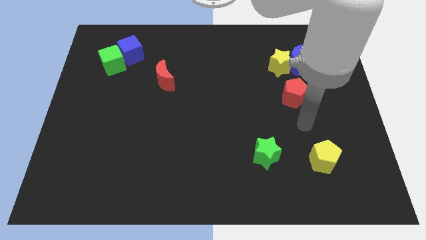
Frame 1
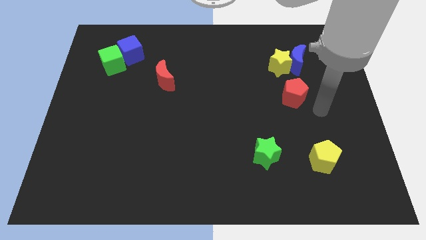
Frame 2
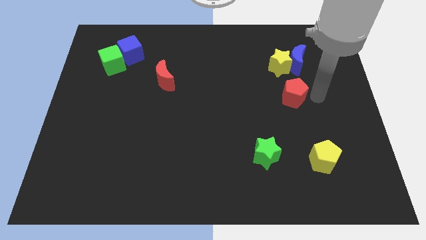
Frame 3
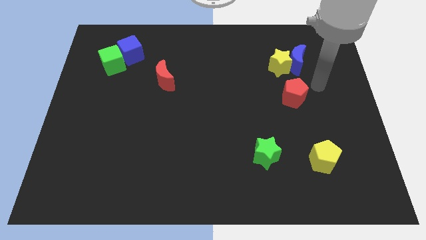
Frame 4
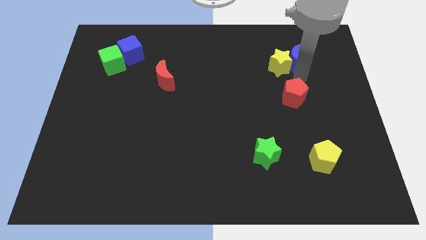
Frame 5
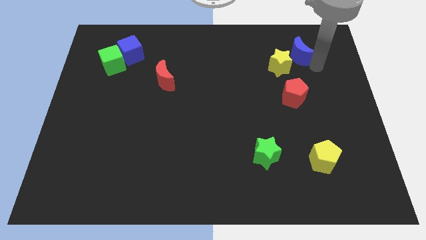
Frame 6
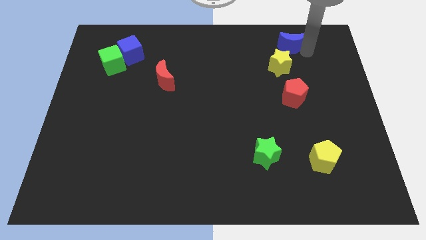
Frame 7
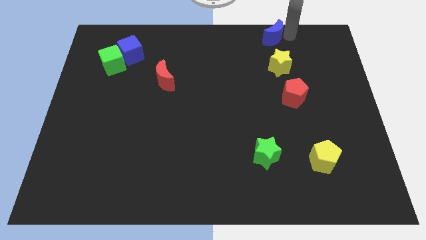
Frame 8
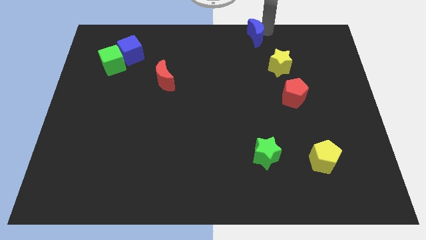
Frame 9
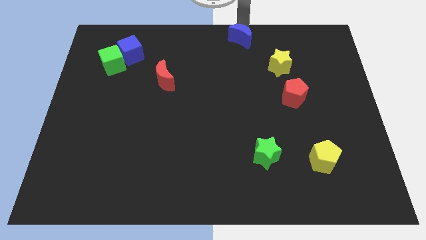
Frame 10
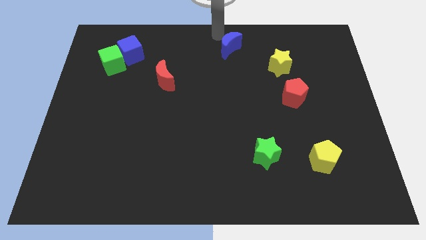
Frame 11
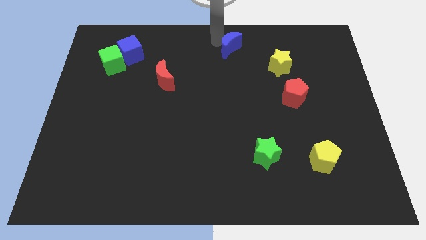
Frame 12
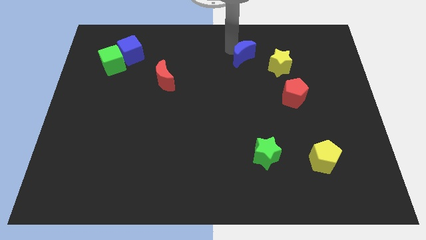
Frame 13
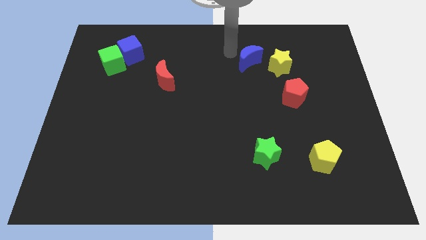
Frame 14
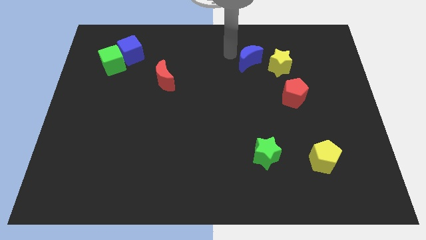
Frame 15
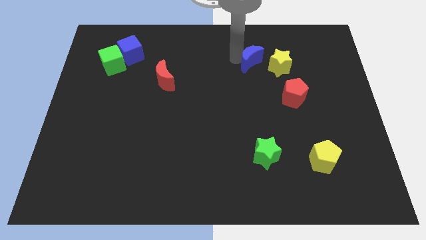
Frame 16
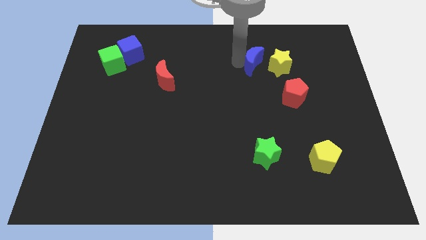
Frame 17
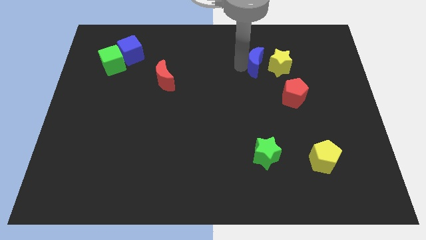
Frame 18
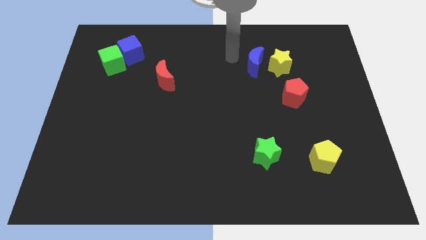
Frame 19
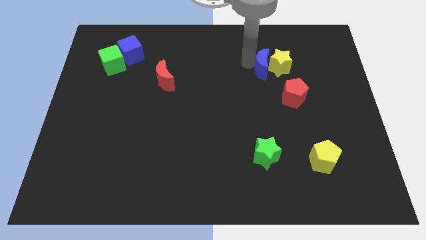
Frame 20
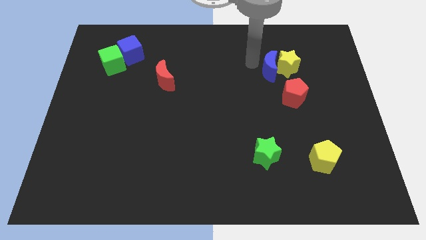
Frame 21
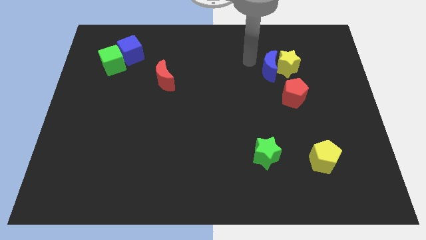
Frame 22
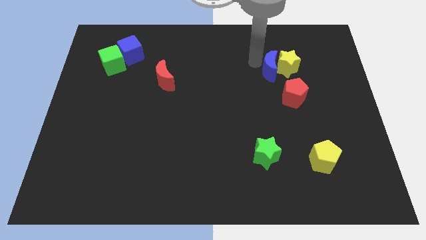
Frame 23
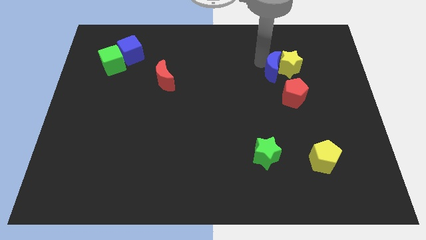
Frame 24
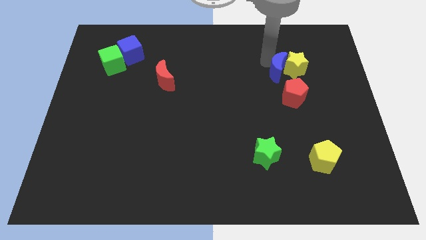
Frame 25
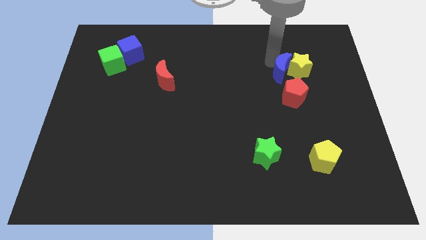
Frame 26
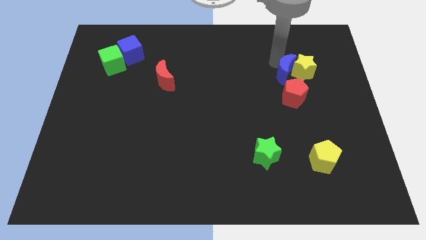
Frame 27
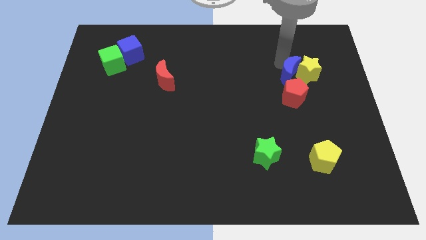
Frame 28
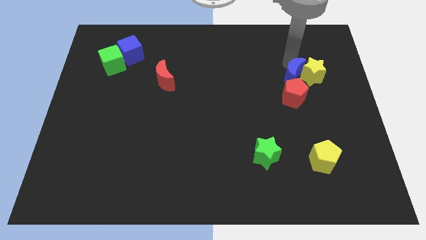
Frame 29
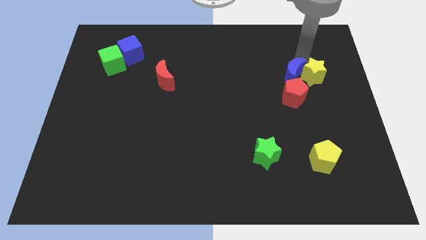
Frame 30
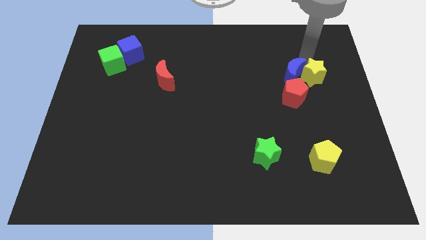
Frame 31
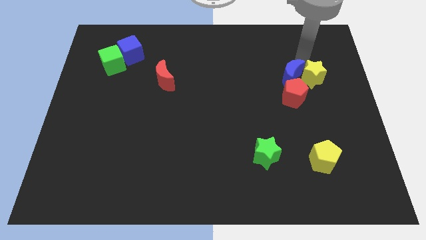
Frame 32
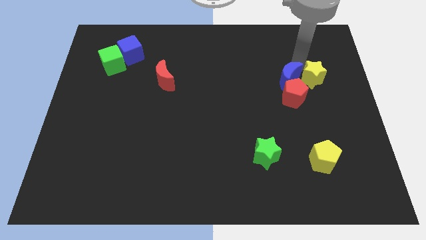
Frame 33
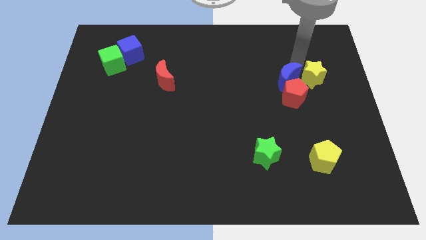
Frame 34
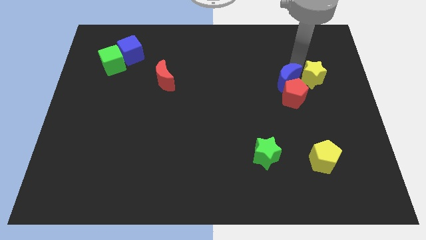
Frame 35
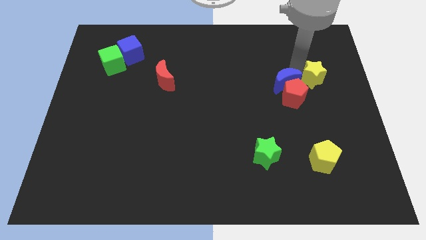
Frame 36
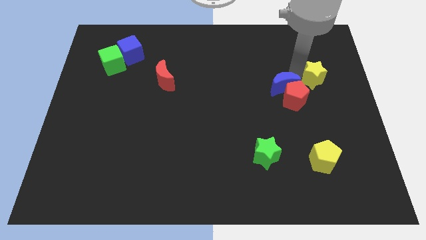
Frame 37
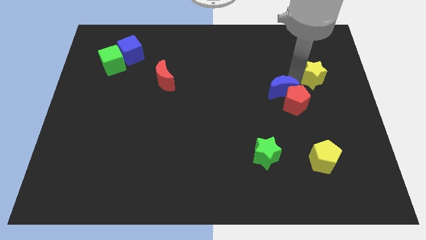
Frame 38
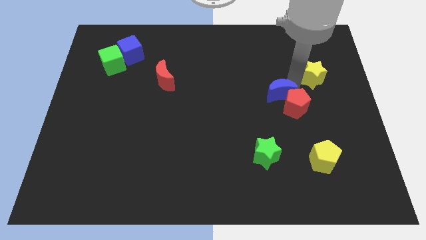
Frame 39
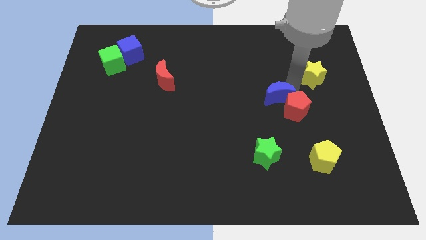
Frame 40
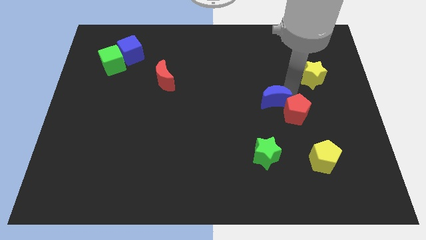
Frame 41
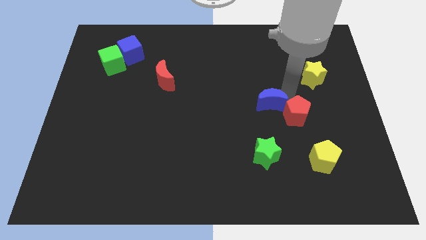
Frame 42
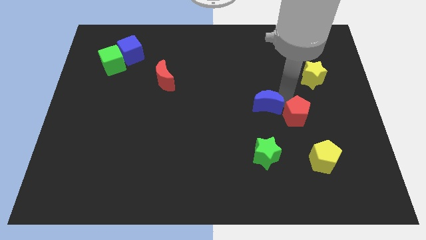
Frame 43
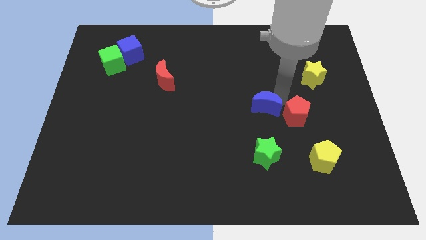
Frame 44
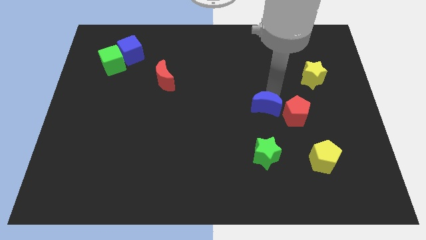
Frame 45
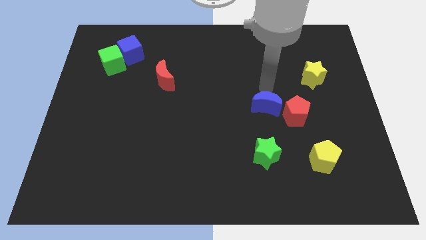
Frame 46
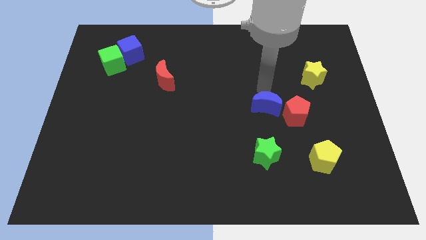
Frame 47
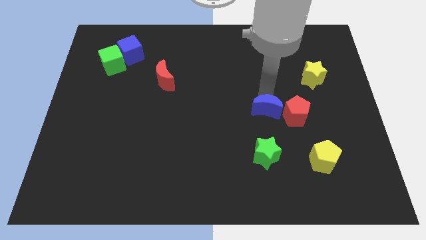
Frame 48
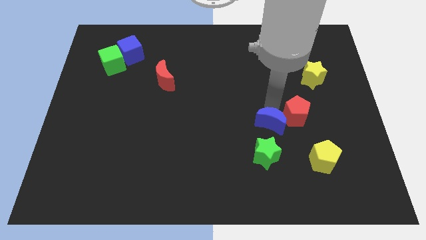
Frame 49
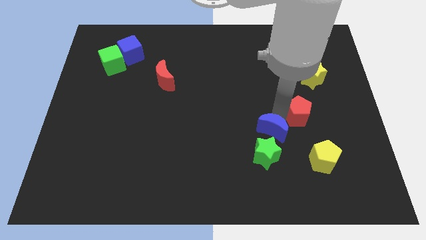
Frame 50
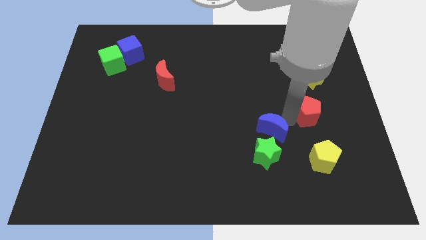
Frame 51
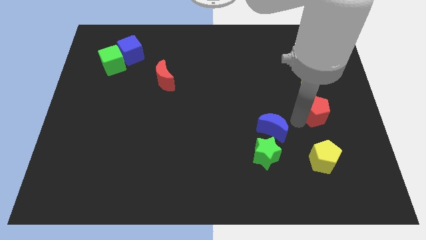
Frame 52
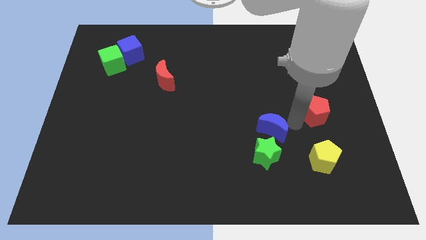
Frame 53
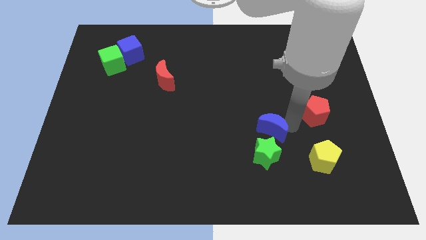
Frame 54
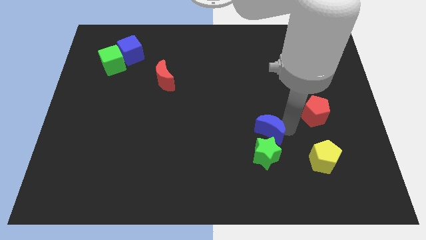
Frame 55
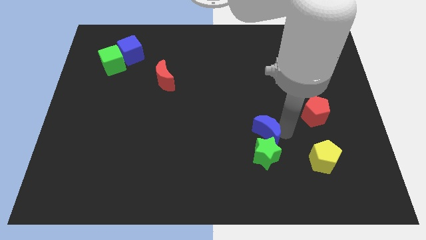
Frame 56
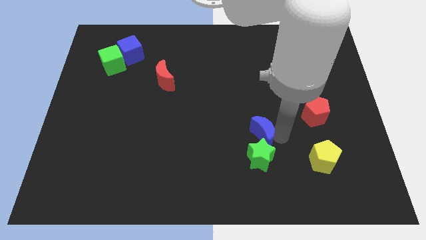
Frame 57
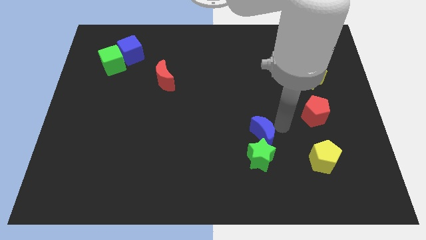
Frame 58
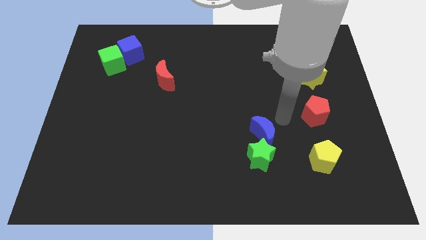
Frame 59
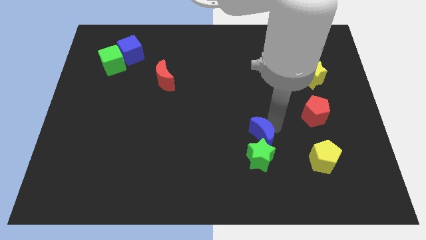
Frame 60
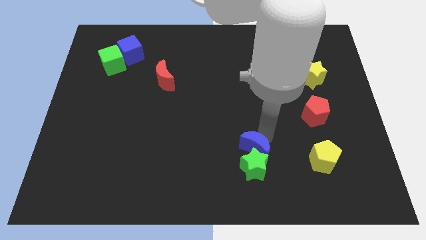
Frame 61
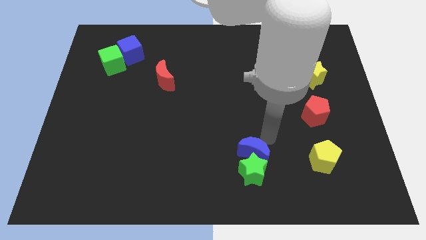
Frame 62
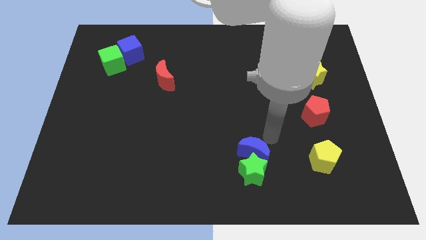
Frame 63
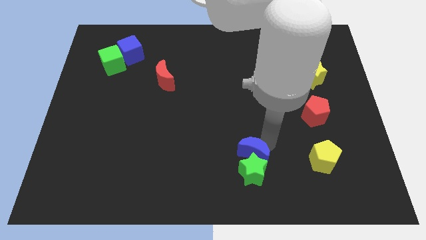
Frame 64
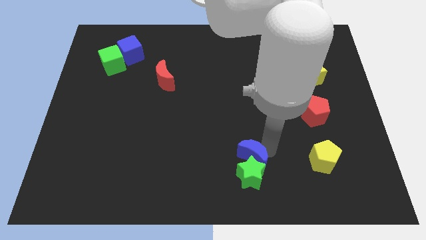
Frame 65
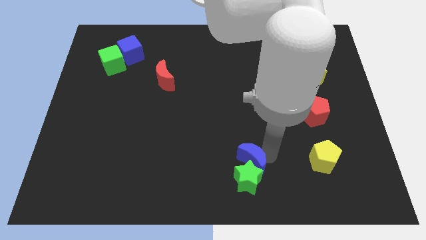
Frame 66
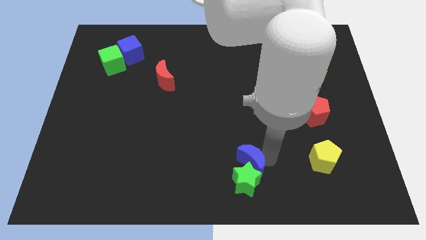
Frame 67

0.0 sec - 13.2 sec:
put the blue moon to the bottom

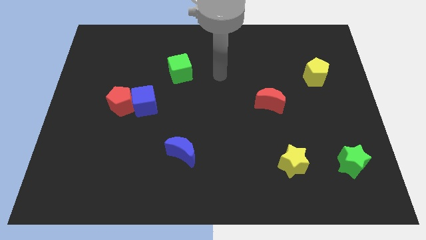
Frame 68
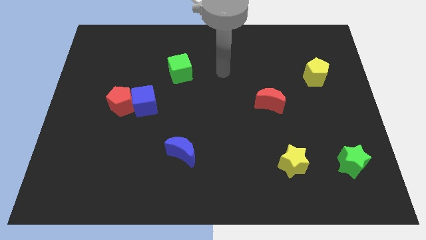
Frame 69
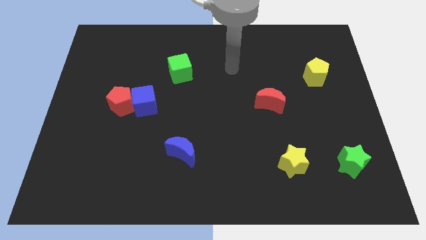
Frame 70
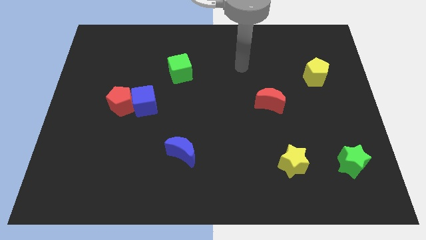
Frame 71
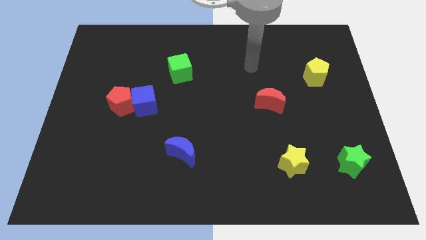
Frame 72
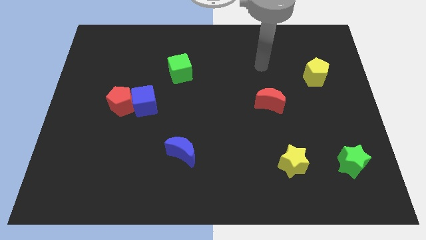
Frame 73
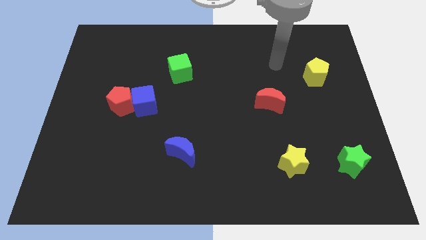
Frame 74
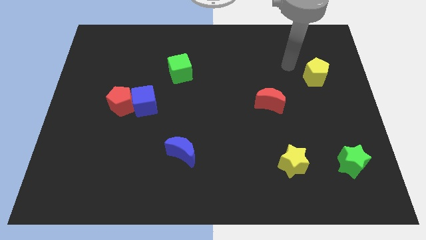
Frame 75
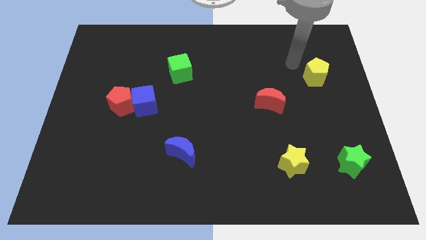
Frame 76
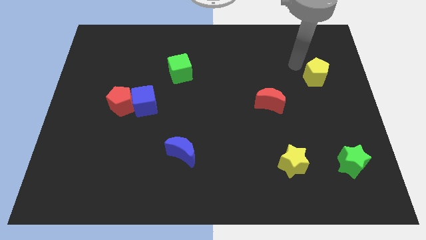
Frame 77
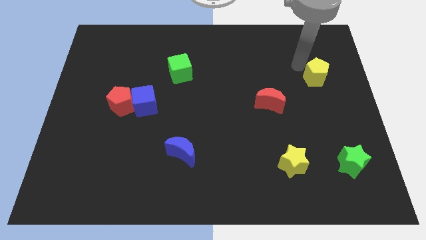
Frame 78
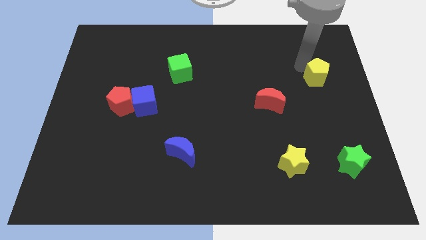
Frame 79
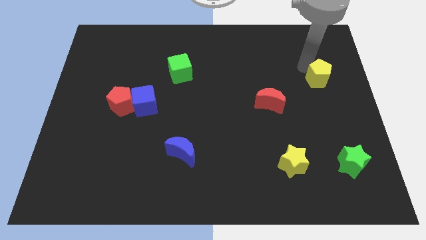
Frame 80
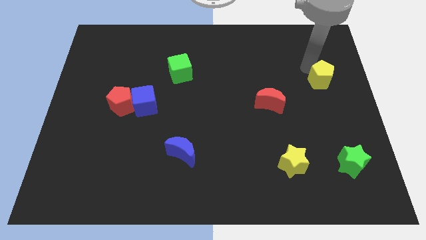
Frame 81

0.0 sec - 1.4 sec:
move the yellow pentagon to the right side
